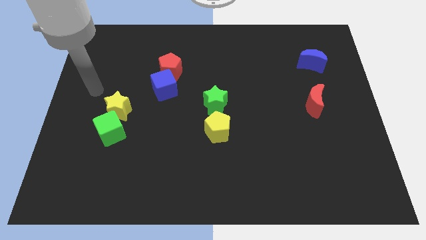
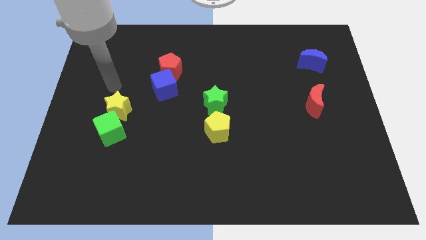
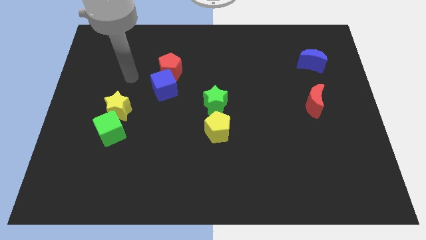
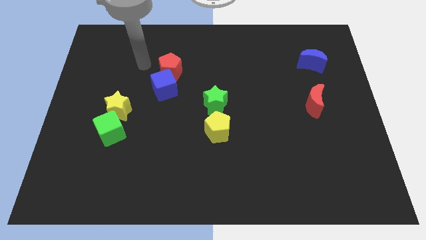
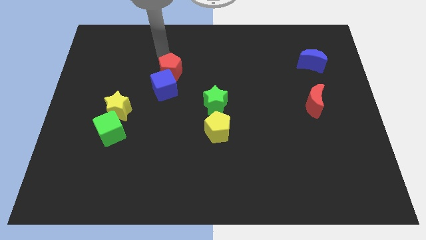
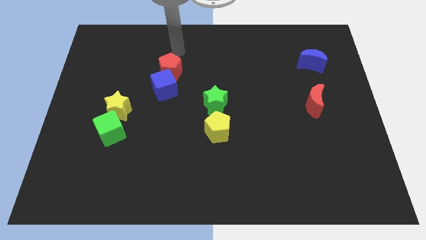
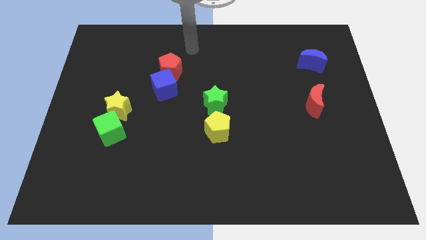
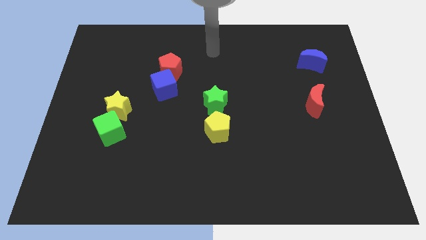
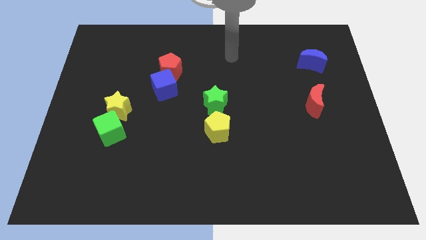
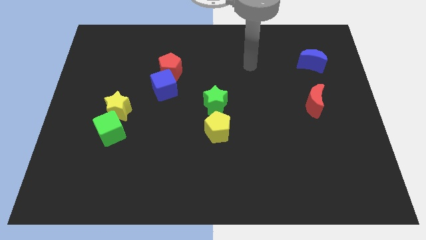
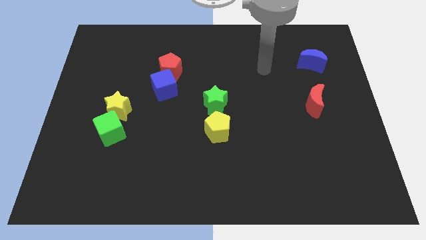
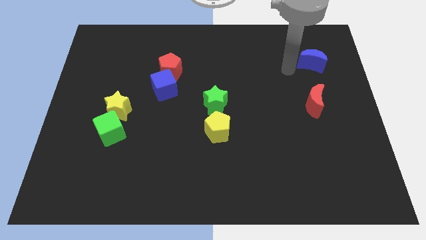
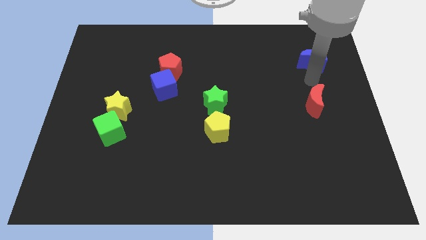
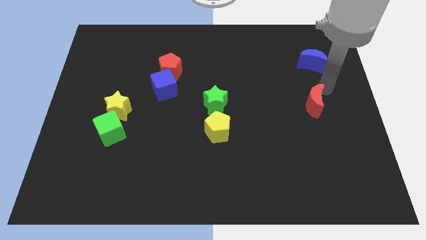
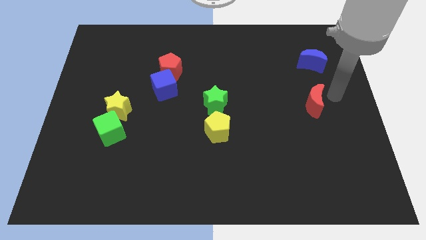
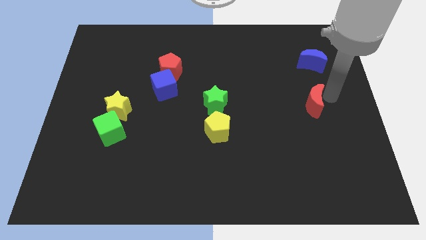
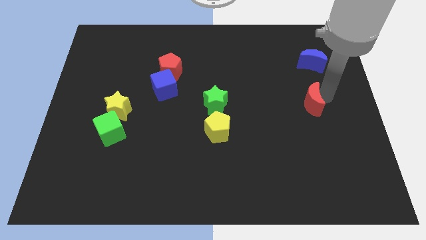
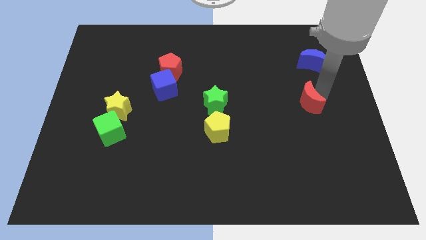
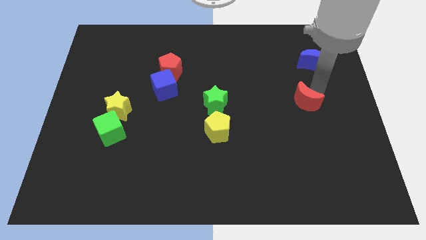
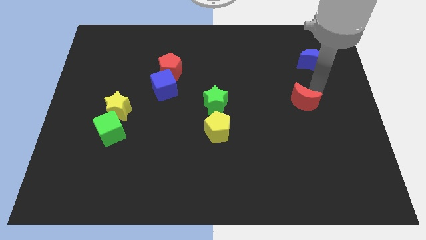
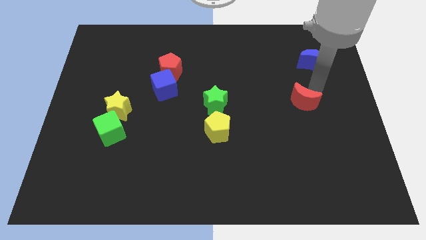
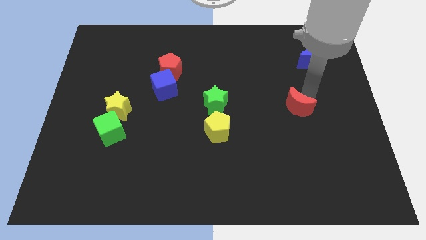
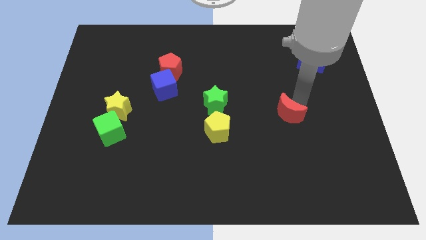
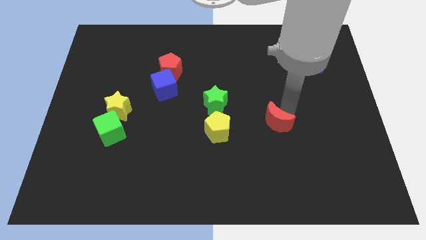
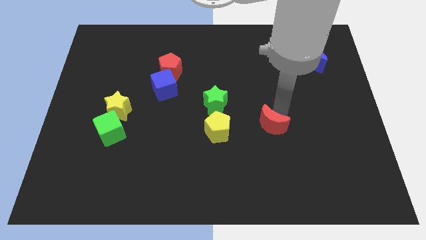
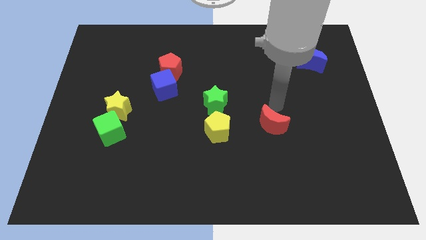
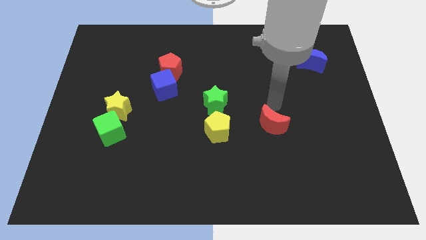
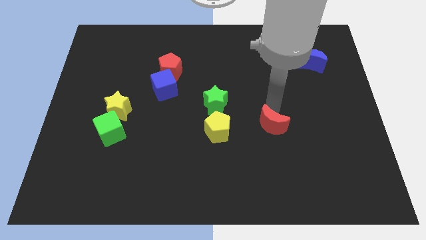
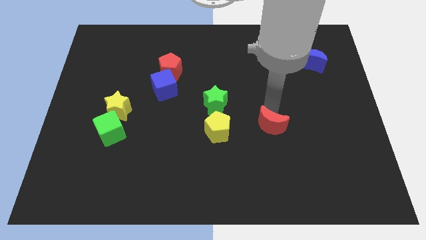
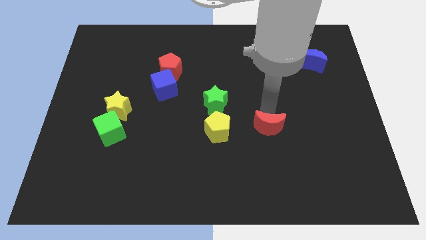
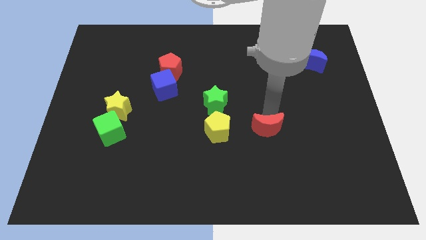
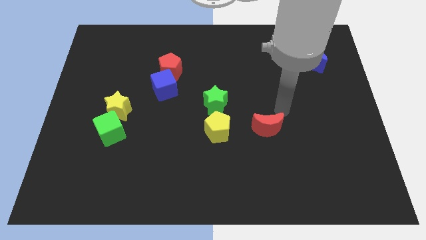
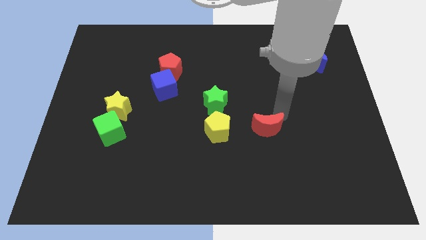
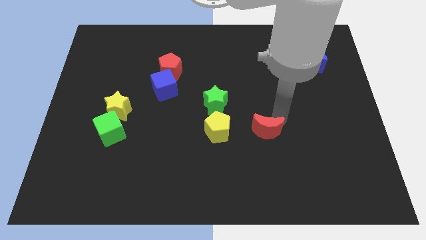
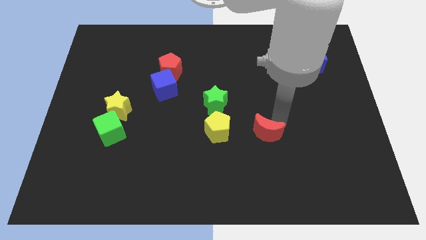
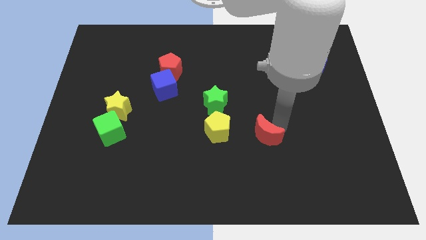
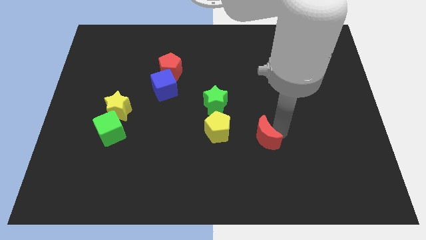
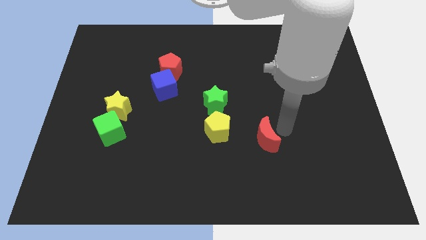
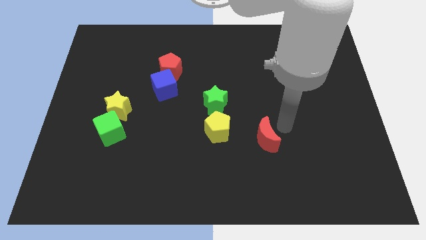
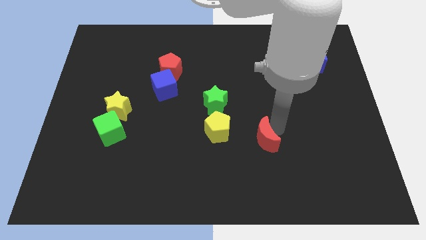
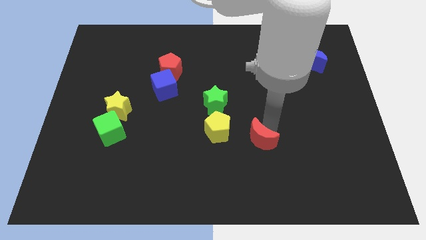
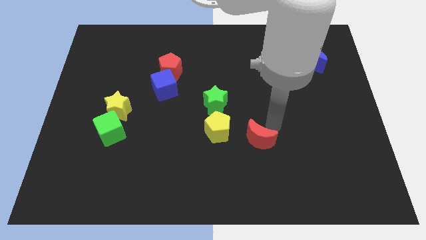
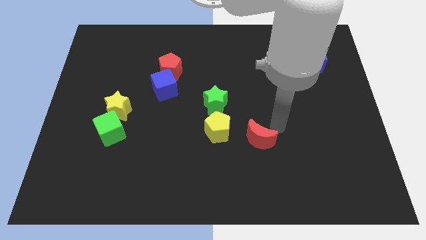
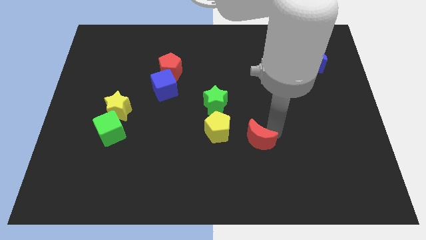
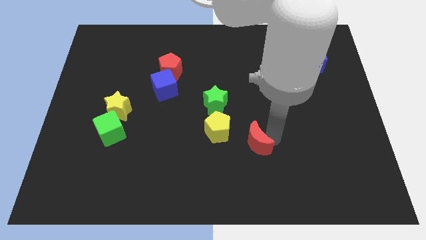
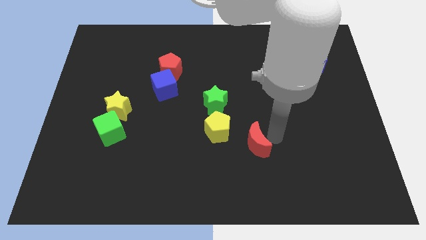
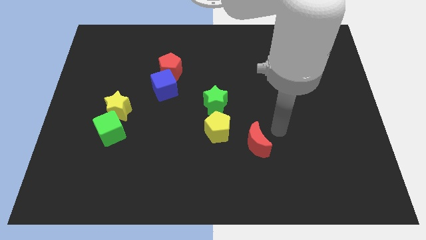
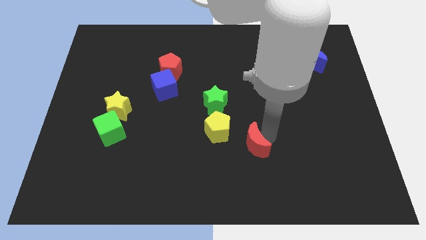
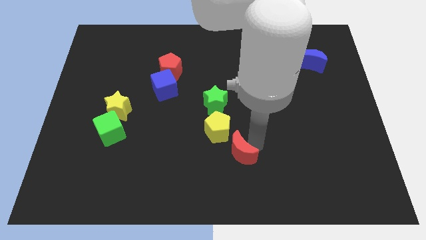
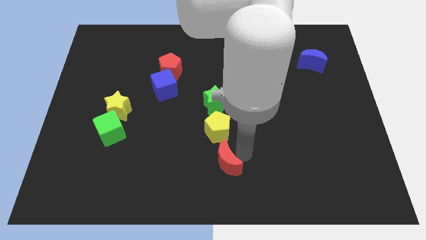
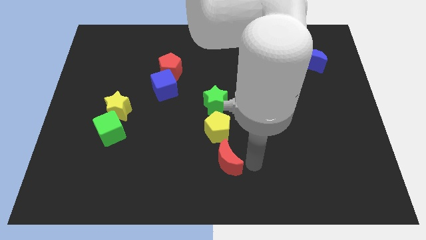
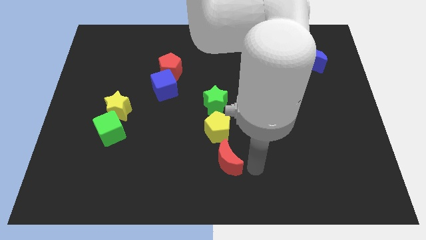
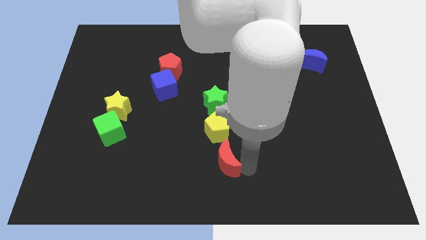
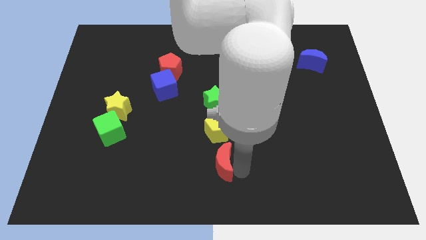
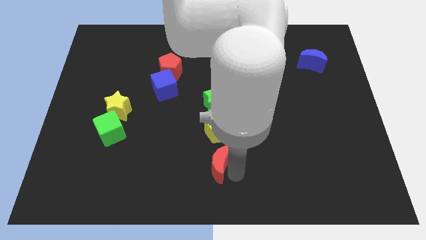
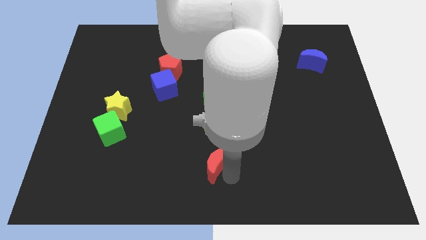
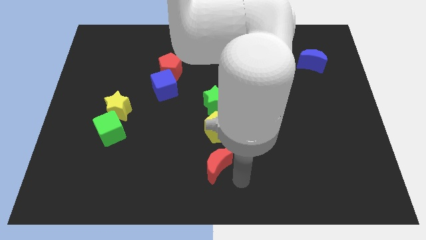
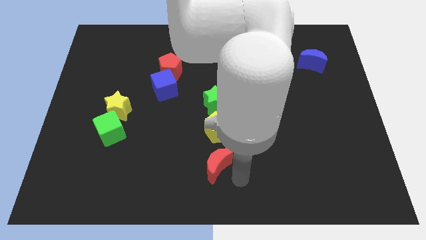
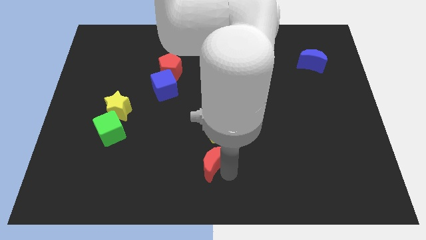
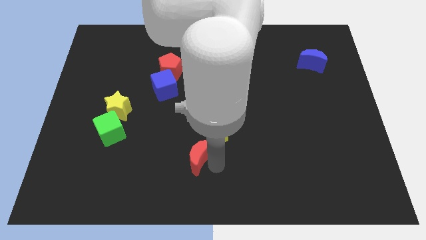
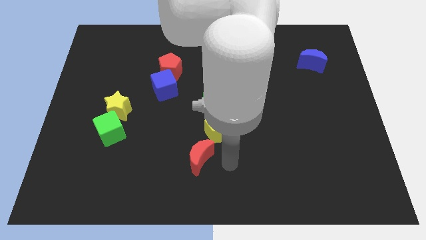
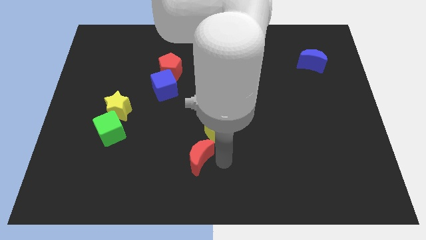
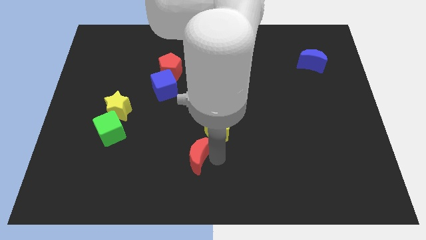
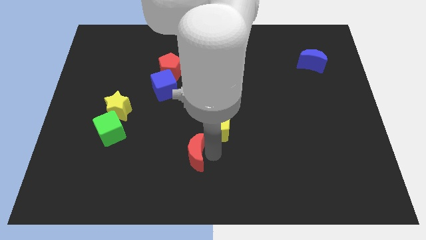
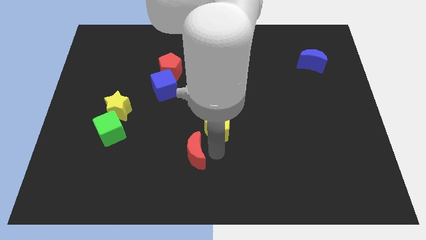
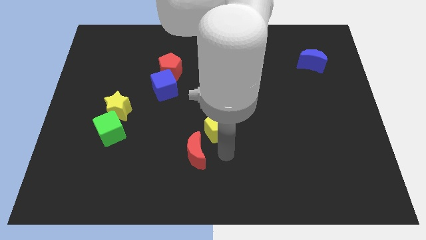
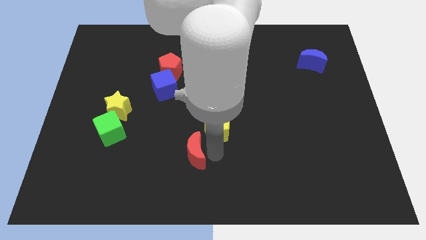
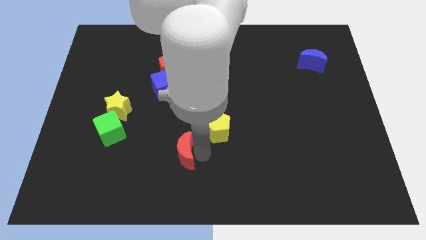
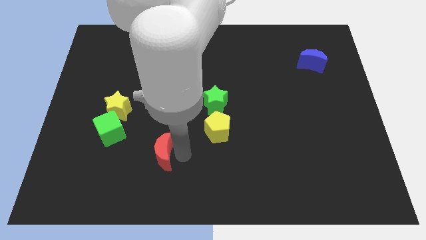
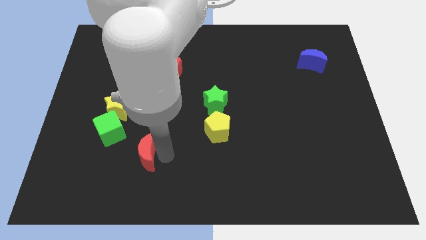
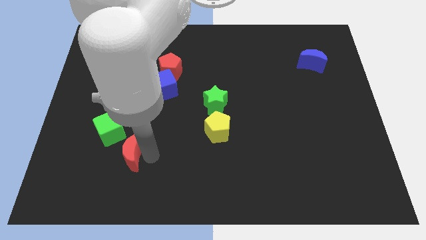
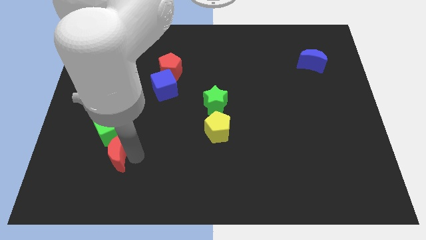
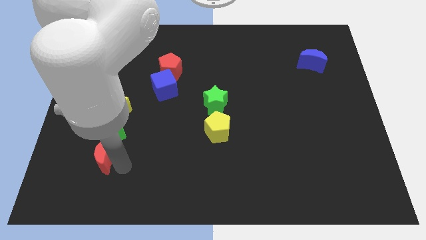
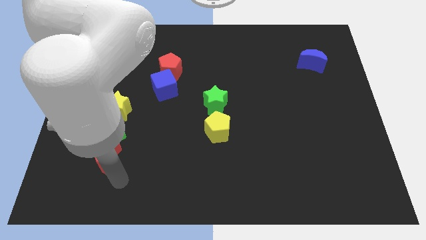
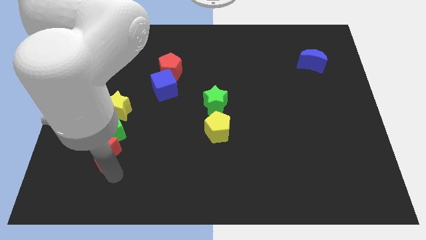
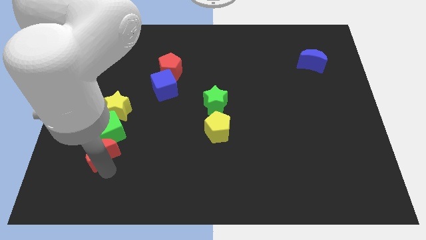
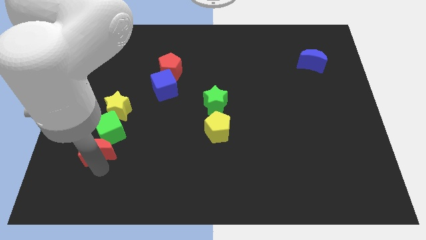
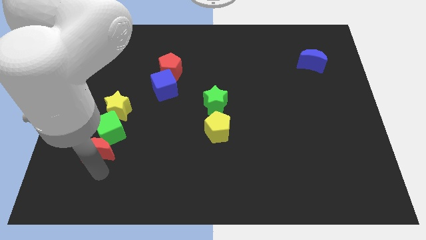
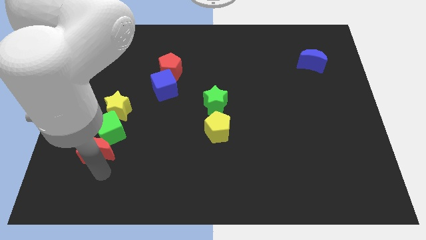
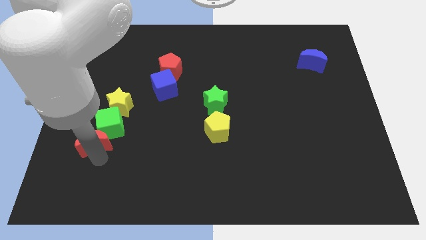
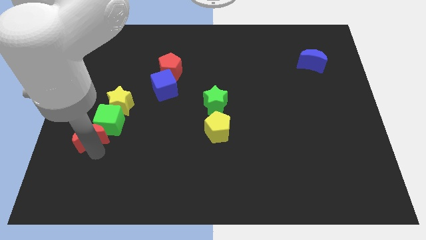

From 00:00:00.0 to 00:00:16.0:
push the red moon diagonally down and to the left of the yellow star
